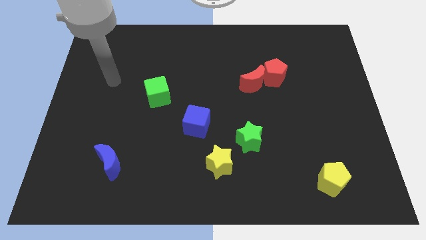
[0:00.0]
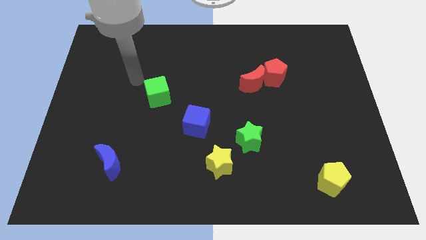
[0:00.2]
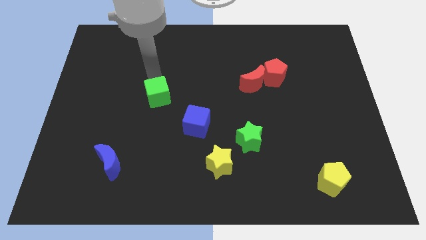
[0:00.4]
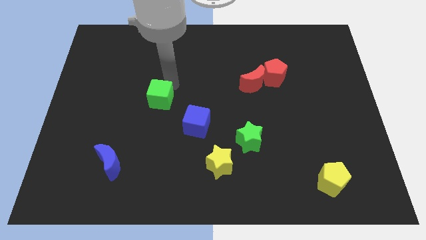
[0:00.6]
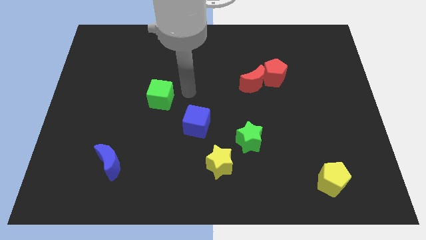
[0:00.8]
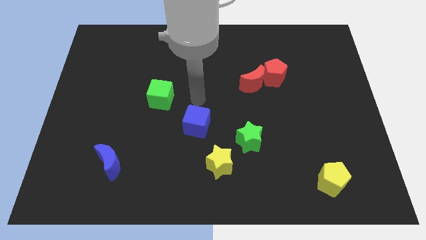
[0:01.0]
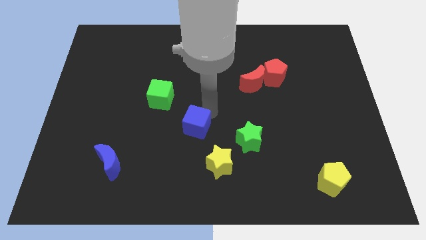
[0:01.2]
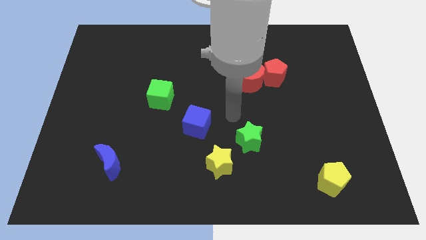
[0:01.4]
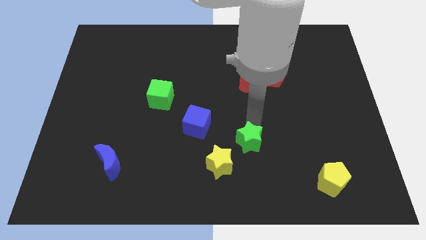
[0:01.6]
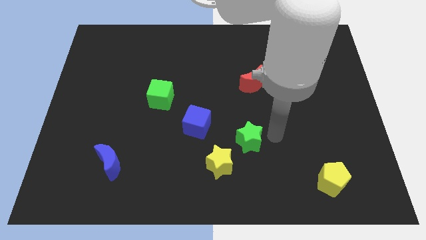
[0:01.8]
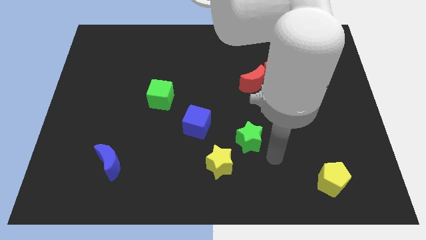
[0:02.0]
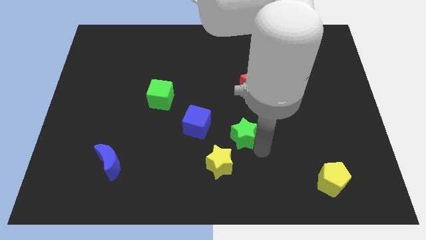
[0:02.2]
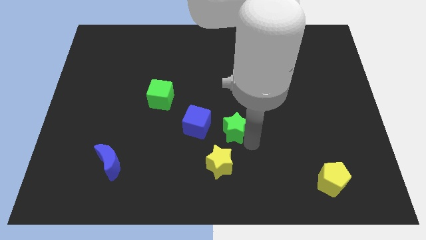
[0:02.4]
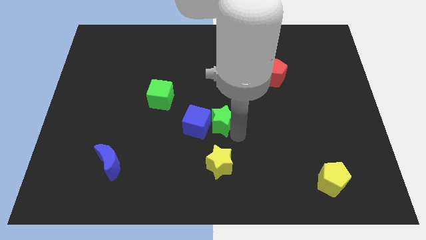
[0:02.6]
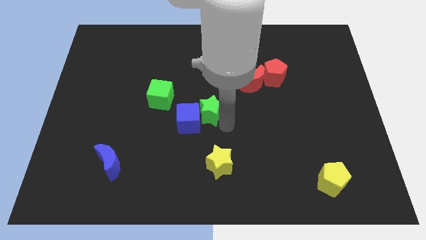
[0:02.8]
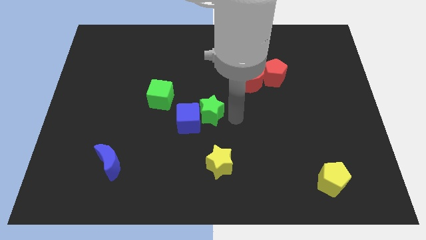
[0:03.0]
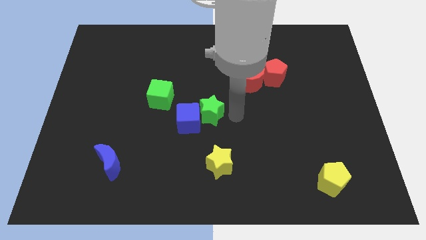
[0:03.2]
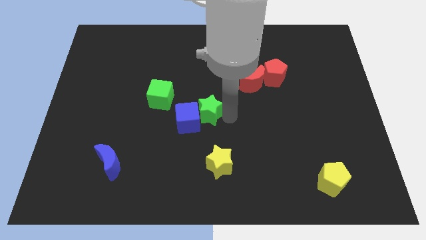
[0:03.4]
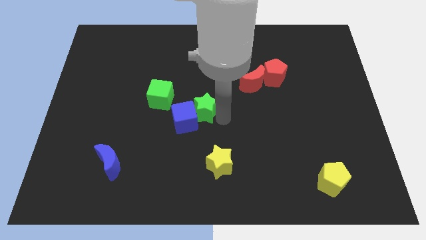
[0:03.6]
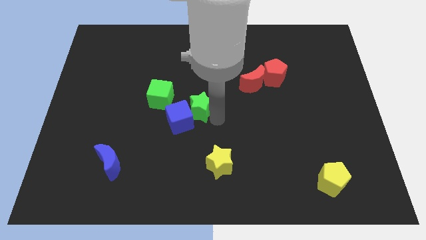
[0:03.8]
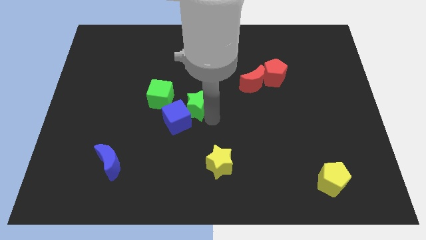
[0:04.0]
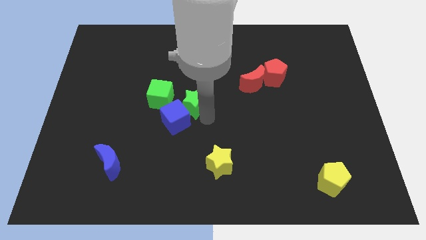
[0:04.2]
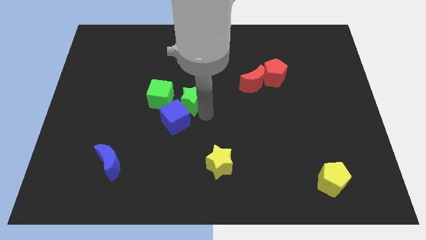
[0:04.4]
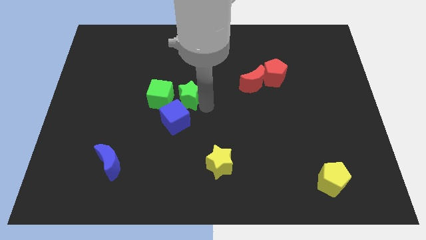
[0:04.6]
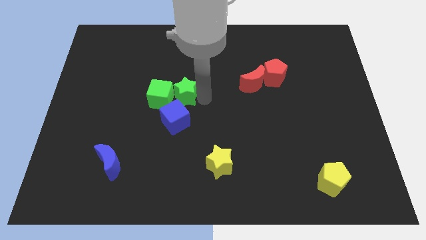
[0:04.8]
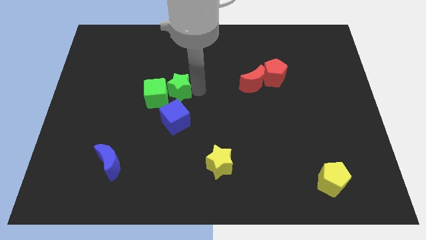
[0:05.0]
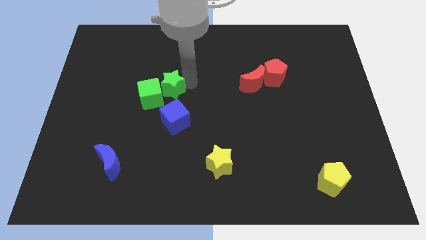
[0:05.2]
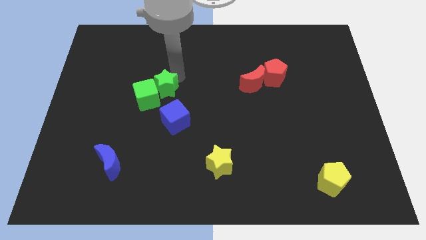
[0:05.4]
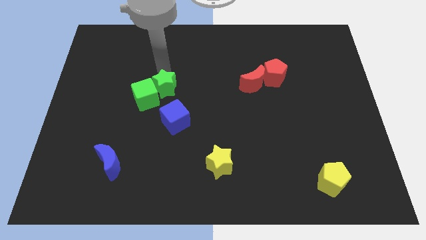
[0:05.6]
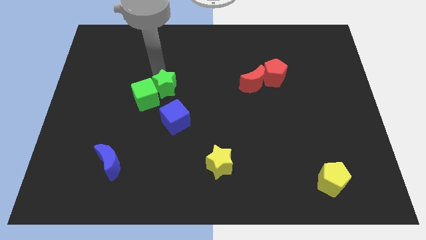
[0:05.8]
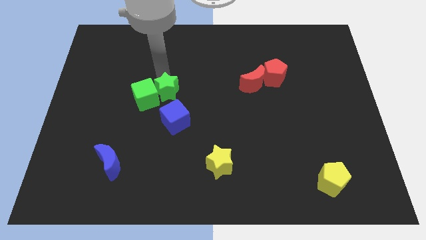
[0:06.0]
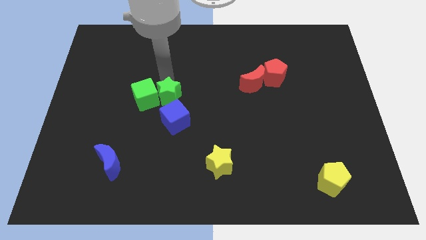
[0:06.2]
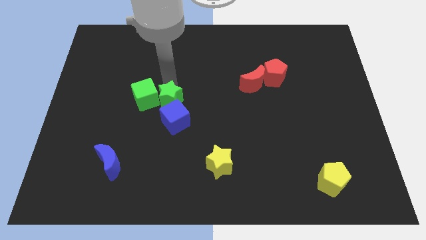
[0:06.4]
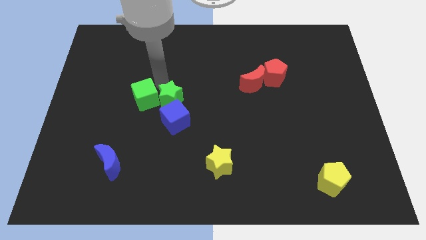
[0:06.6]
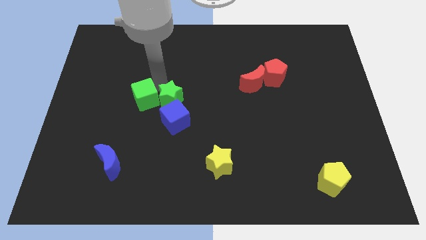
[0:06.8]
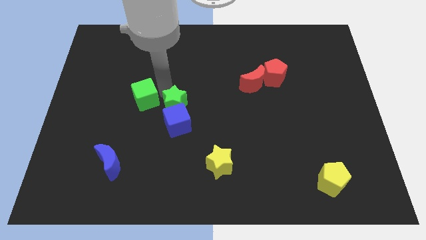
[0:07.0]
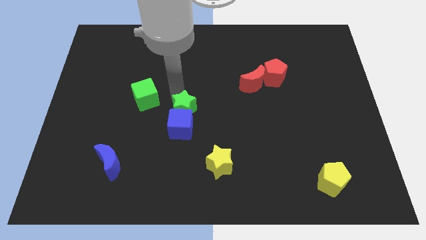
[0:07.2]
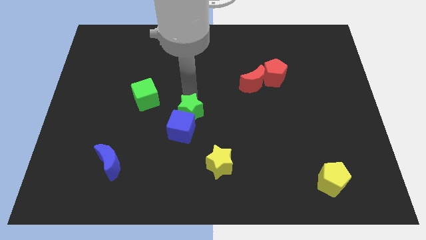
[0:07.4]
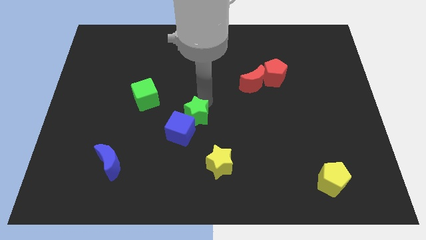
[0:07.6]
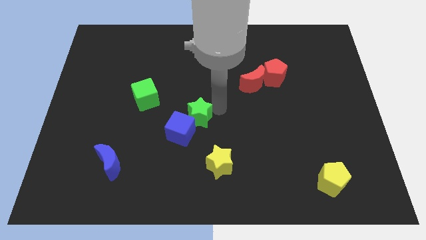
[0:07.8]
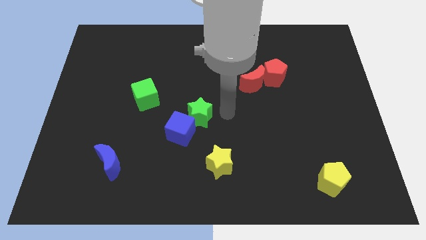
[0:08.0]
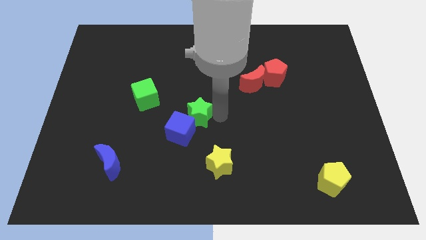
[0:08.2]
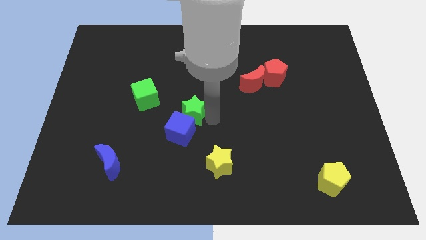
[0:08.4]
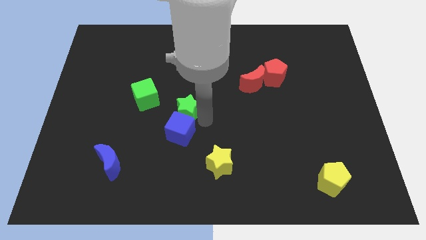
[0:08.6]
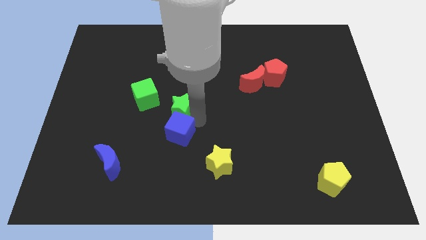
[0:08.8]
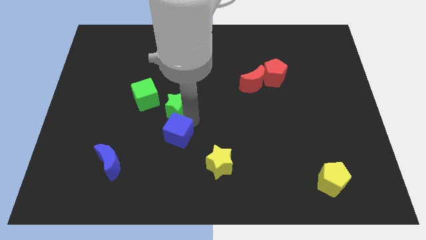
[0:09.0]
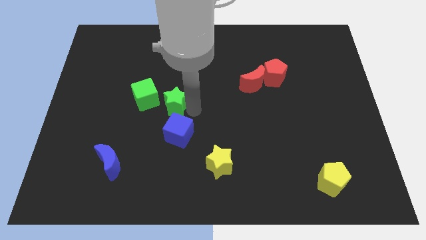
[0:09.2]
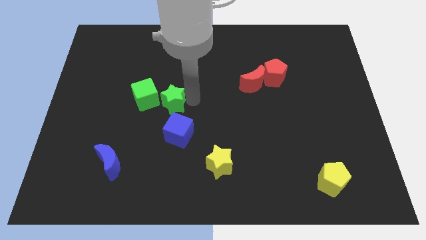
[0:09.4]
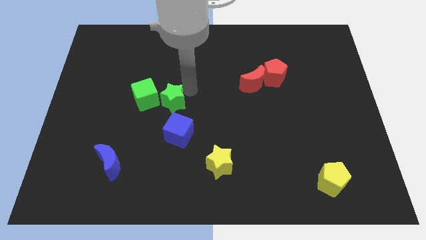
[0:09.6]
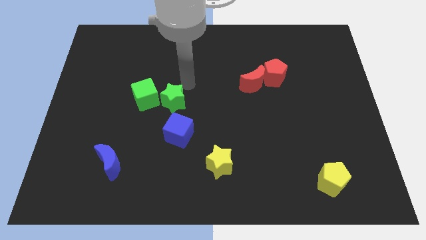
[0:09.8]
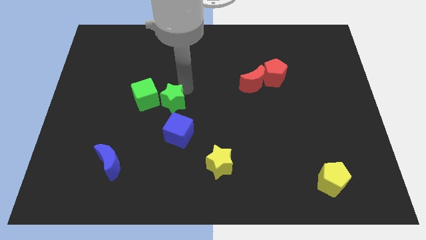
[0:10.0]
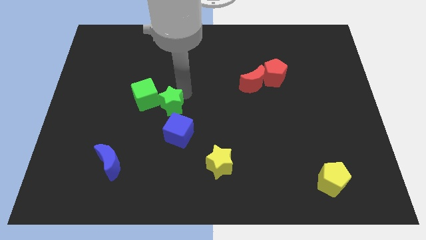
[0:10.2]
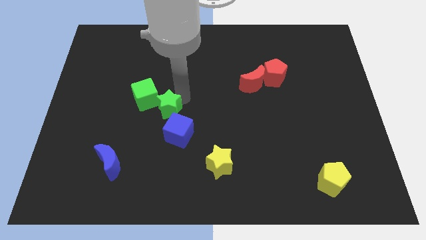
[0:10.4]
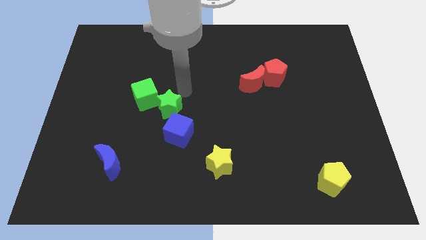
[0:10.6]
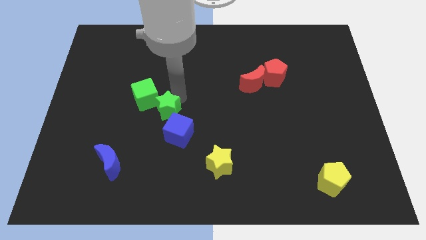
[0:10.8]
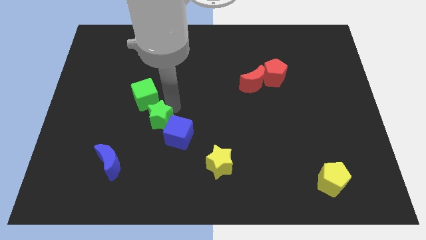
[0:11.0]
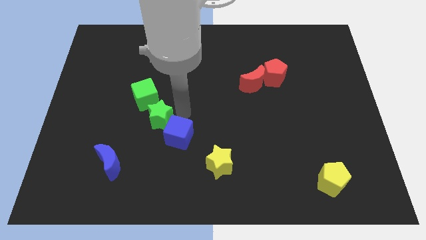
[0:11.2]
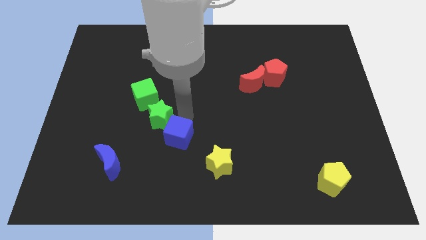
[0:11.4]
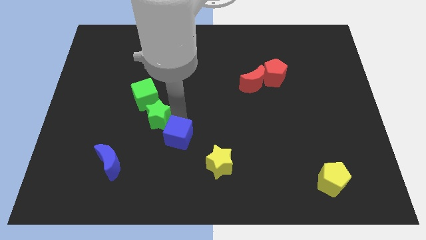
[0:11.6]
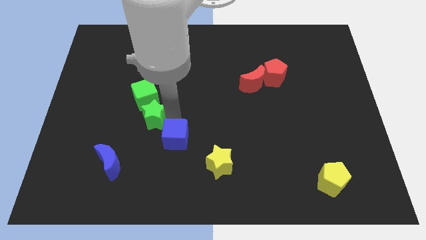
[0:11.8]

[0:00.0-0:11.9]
move the green star left

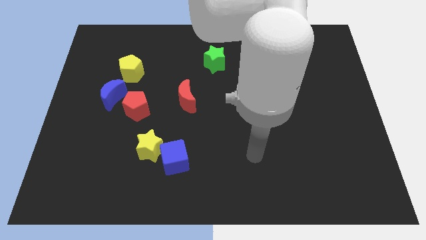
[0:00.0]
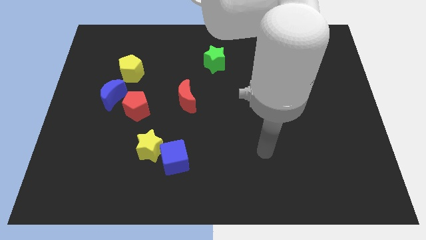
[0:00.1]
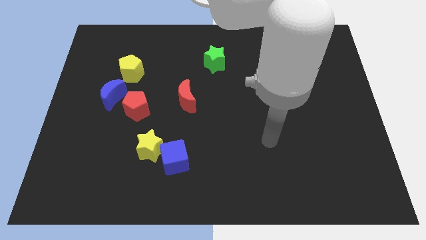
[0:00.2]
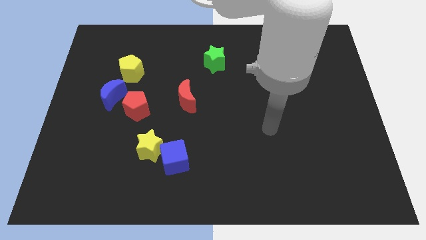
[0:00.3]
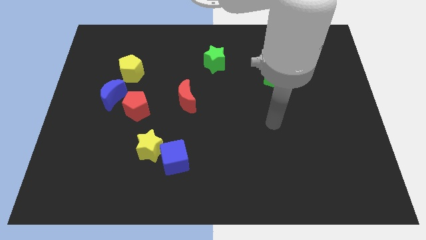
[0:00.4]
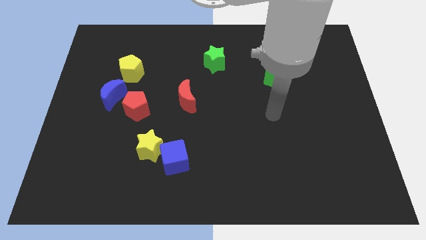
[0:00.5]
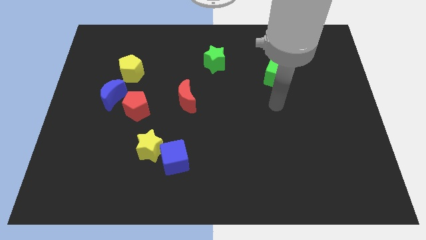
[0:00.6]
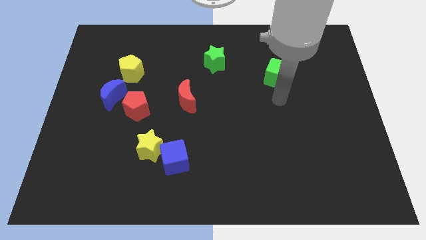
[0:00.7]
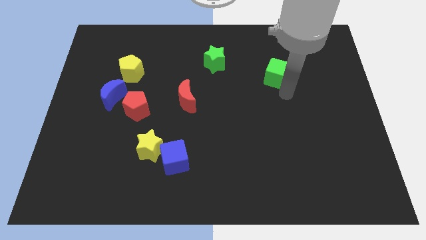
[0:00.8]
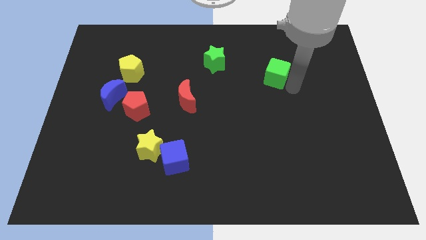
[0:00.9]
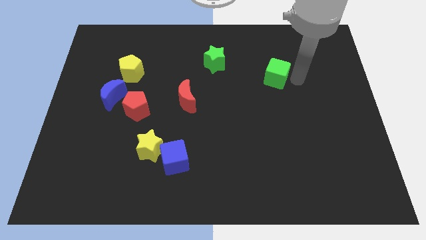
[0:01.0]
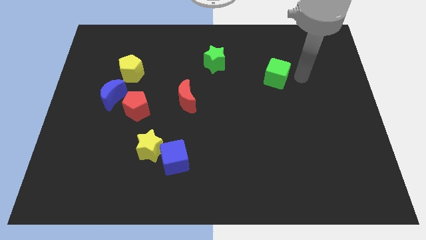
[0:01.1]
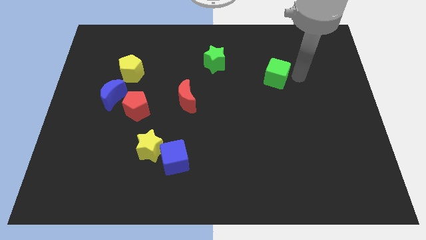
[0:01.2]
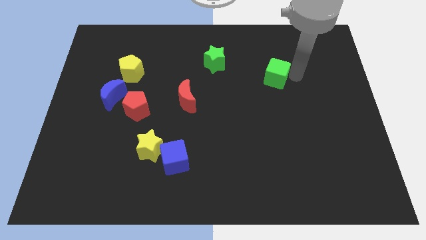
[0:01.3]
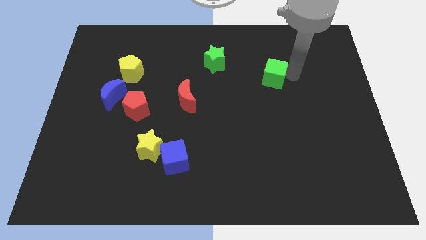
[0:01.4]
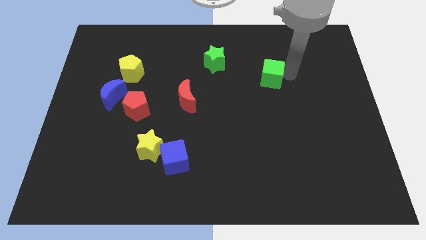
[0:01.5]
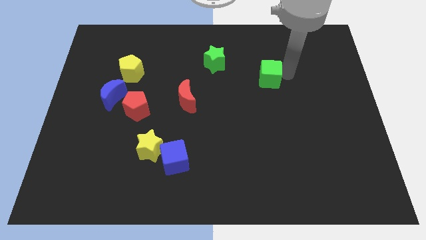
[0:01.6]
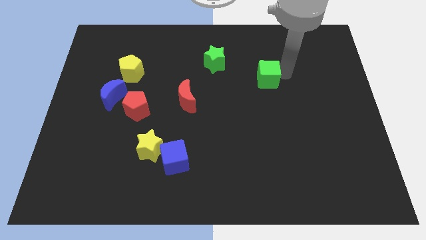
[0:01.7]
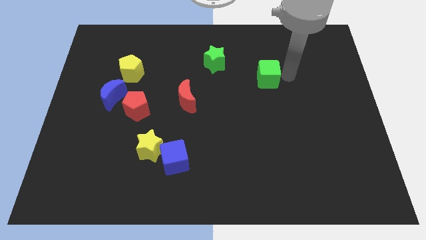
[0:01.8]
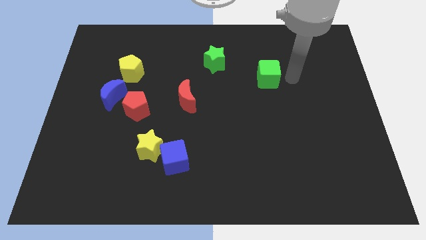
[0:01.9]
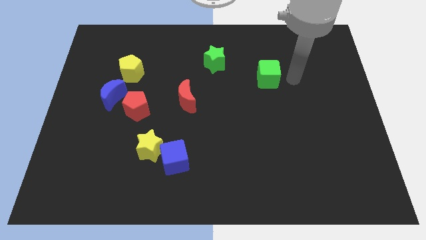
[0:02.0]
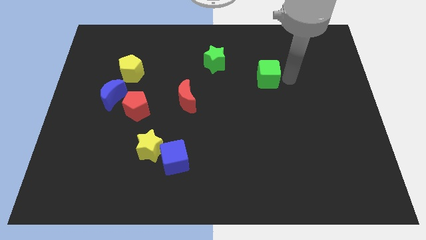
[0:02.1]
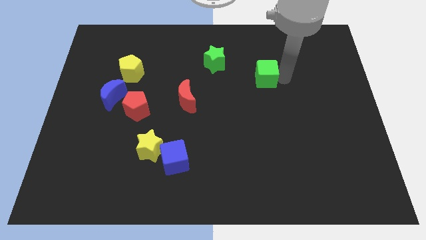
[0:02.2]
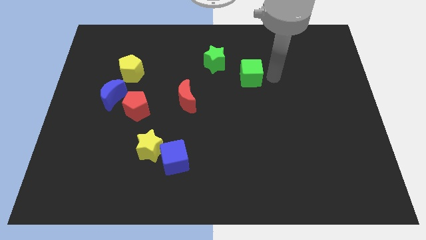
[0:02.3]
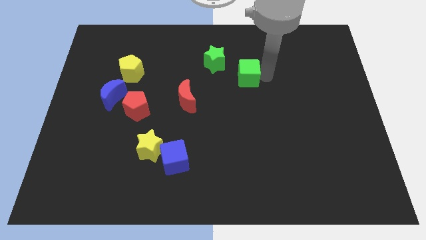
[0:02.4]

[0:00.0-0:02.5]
slightly move the green cube left
